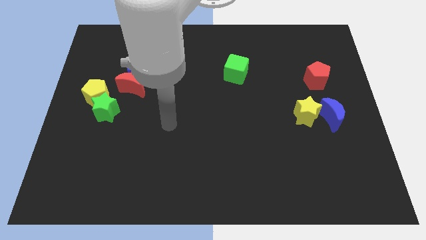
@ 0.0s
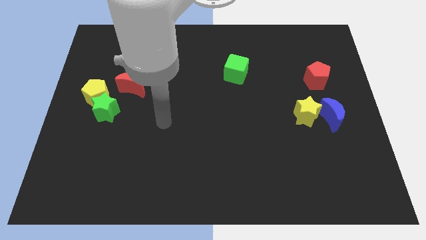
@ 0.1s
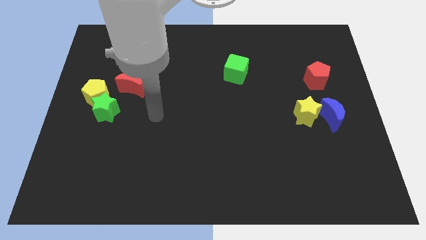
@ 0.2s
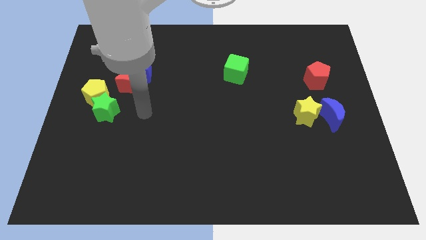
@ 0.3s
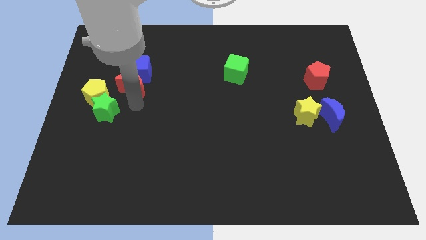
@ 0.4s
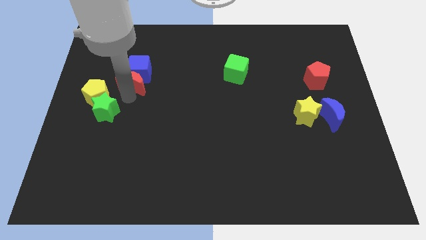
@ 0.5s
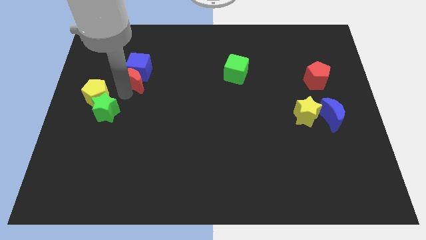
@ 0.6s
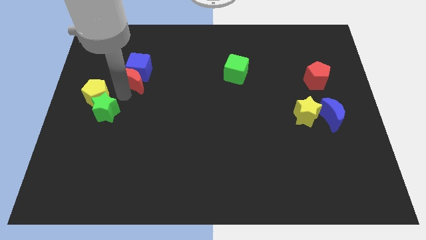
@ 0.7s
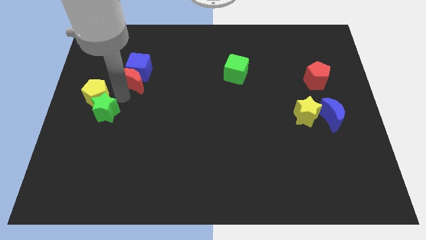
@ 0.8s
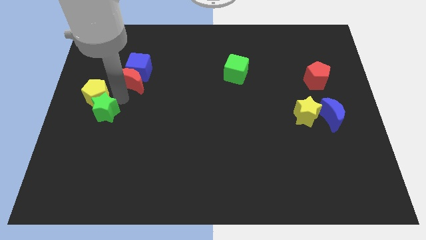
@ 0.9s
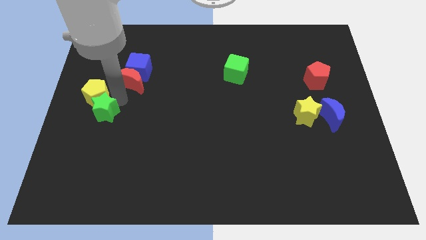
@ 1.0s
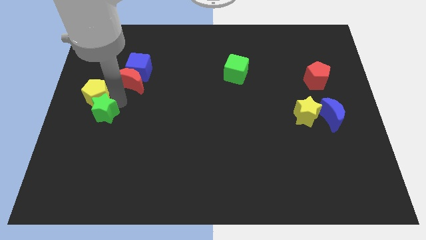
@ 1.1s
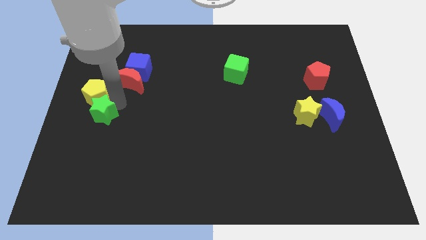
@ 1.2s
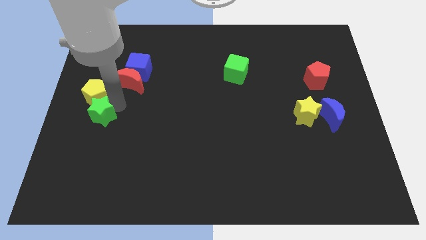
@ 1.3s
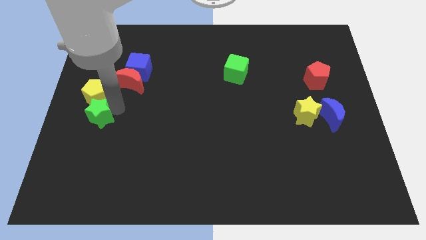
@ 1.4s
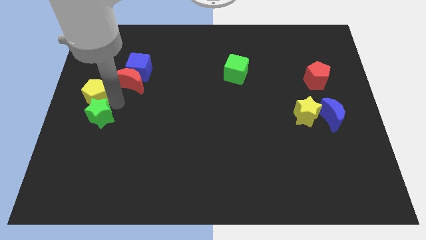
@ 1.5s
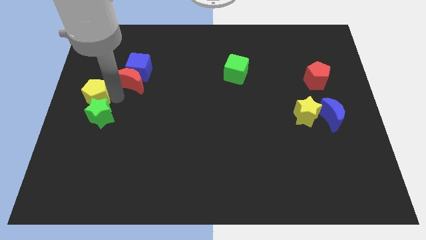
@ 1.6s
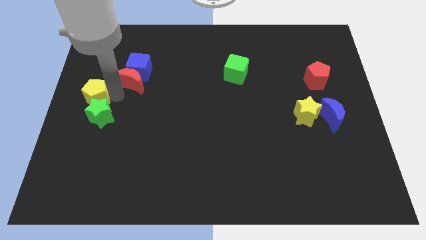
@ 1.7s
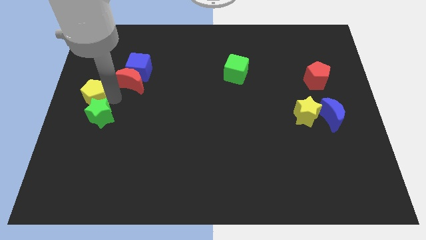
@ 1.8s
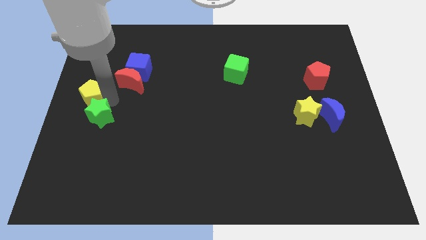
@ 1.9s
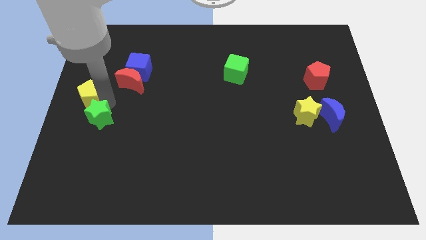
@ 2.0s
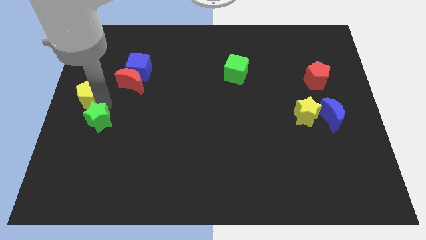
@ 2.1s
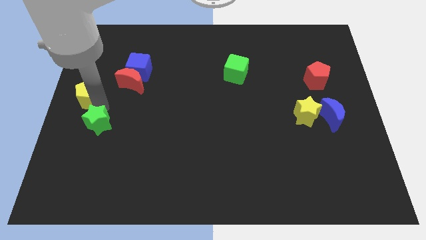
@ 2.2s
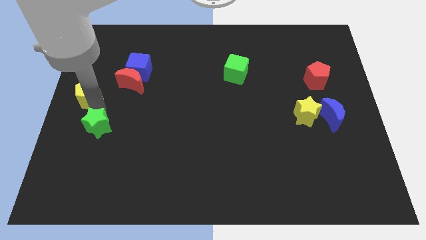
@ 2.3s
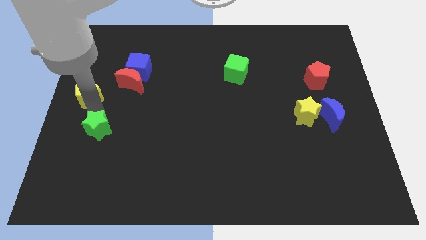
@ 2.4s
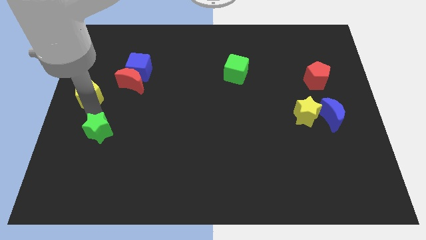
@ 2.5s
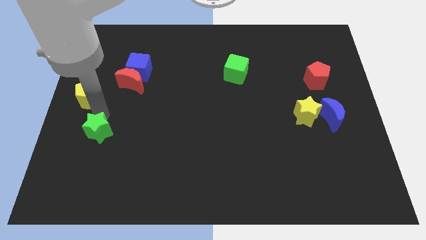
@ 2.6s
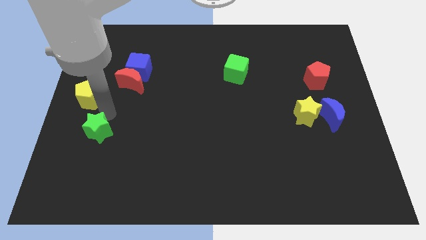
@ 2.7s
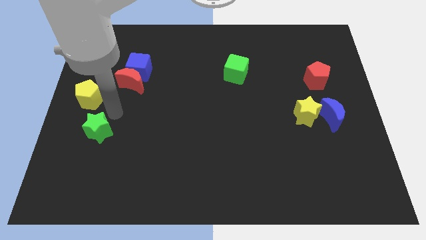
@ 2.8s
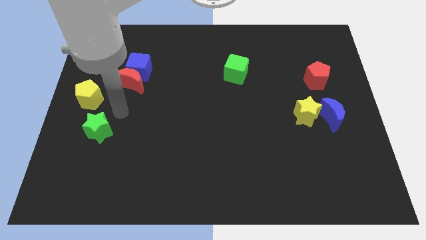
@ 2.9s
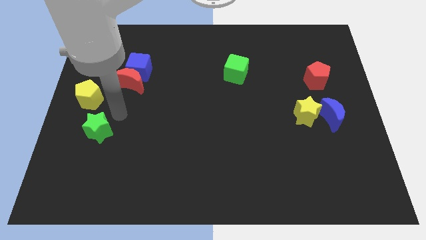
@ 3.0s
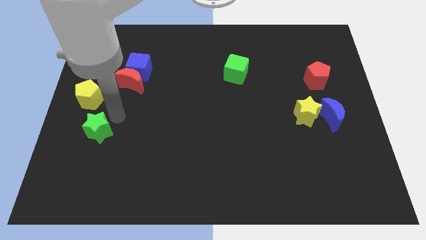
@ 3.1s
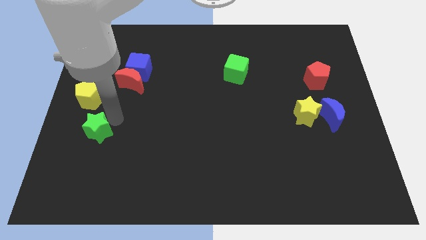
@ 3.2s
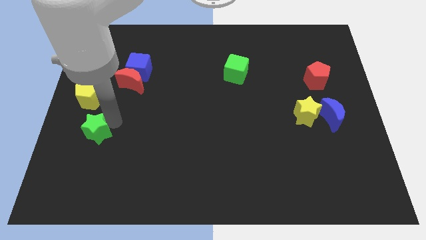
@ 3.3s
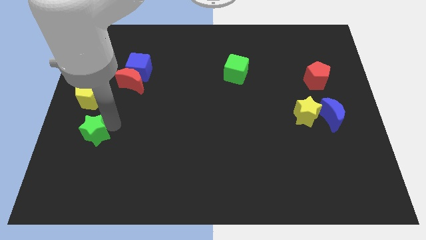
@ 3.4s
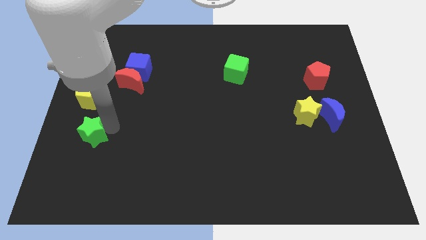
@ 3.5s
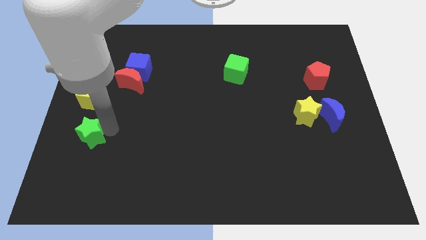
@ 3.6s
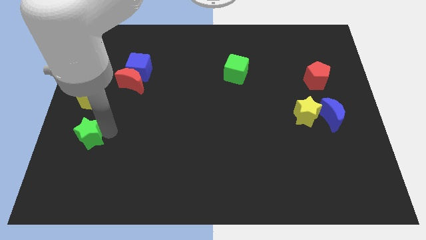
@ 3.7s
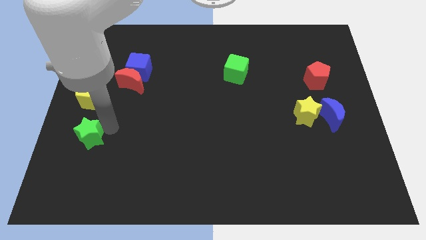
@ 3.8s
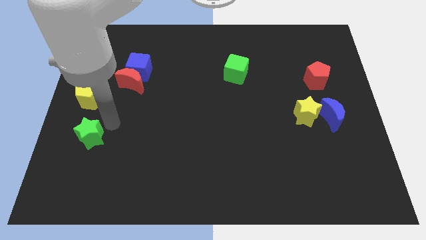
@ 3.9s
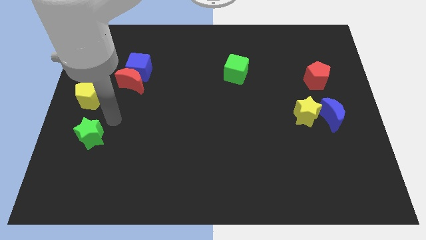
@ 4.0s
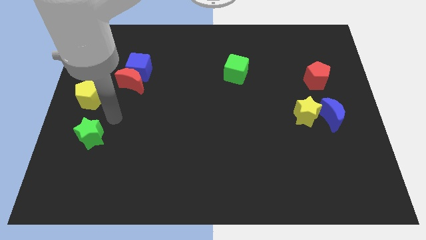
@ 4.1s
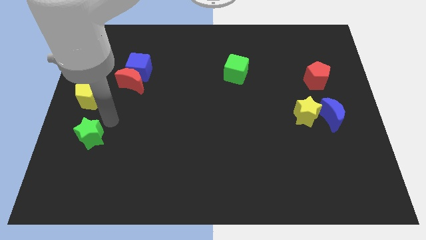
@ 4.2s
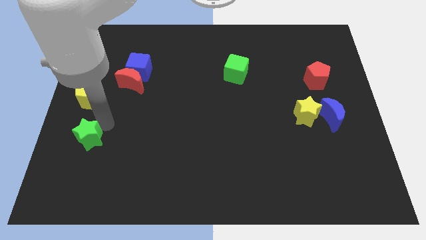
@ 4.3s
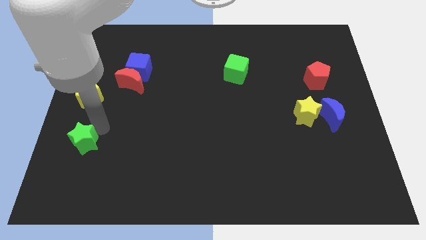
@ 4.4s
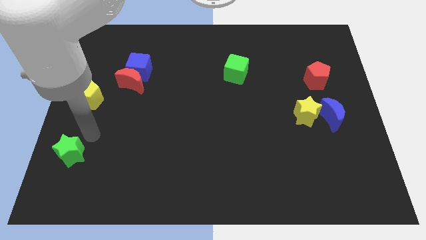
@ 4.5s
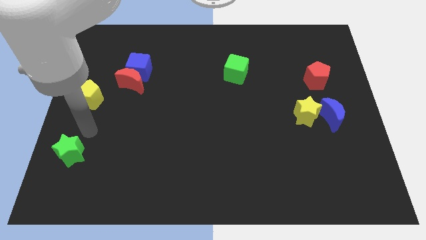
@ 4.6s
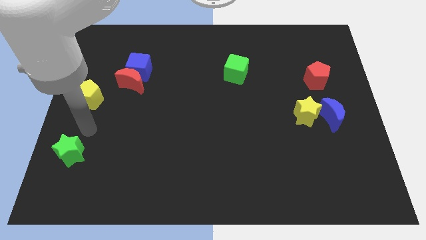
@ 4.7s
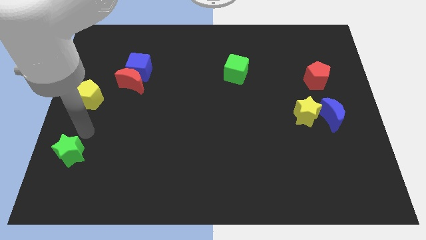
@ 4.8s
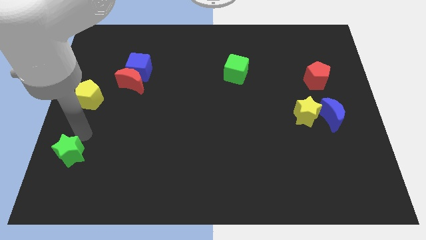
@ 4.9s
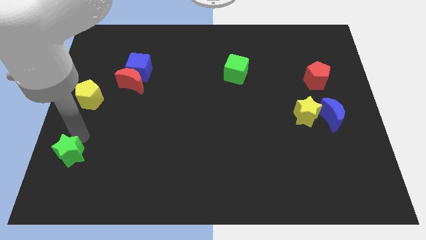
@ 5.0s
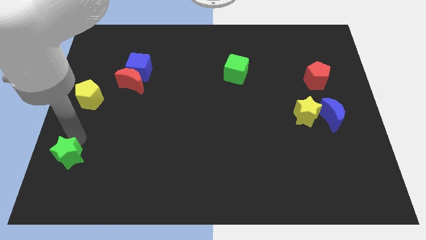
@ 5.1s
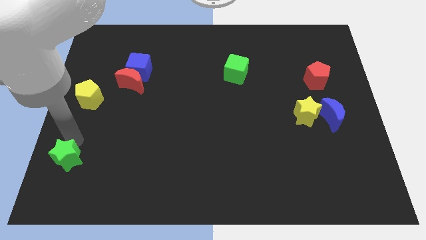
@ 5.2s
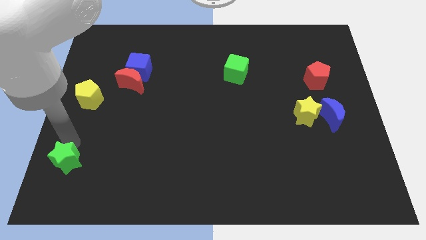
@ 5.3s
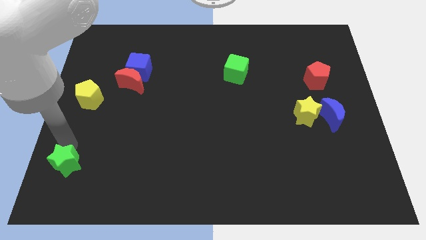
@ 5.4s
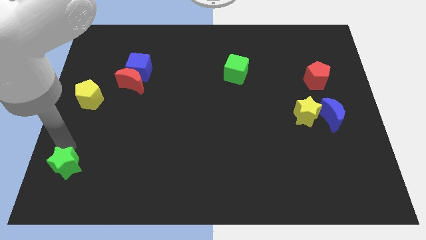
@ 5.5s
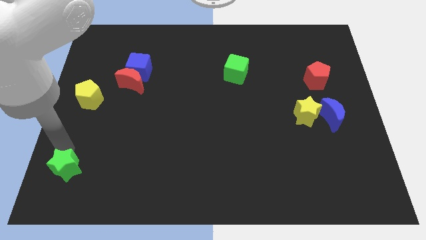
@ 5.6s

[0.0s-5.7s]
slide the green star to the bottom left

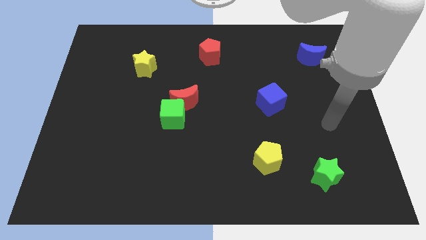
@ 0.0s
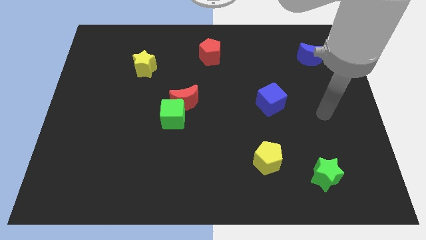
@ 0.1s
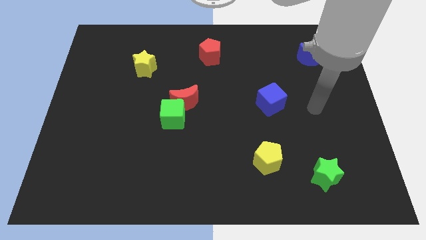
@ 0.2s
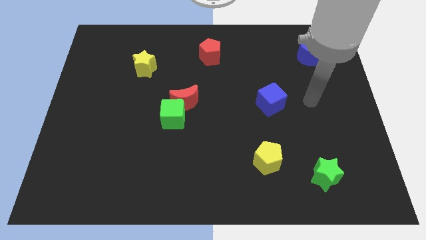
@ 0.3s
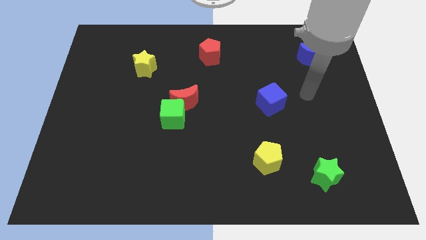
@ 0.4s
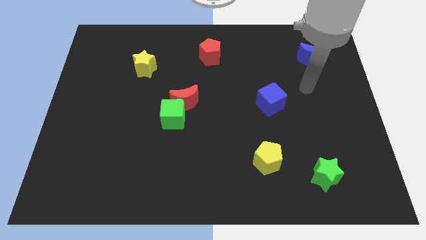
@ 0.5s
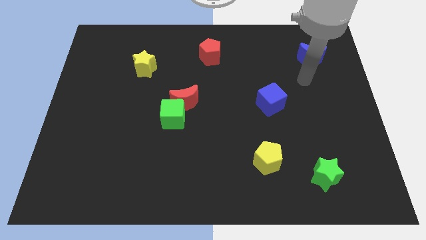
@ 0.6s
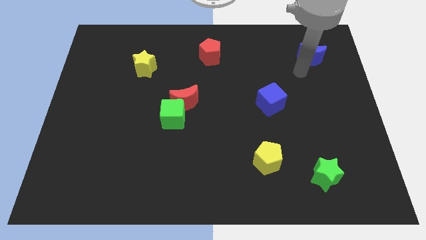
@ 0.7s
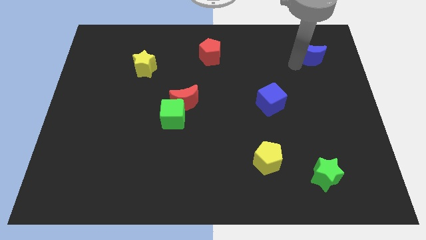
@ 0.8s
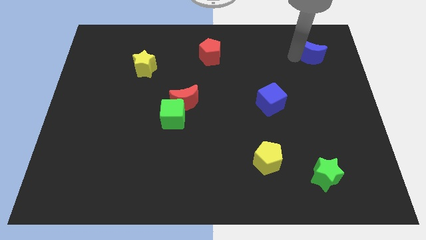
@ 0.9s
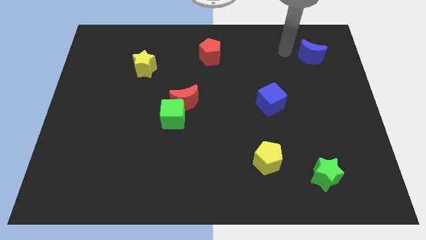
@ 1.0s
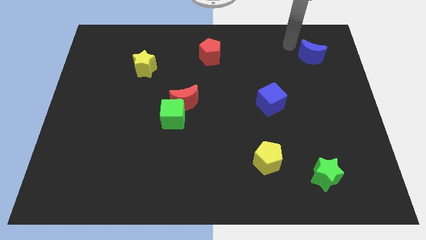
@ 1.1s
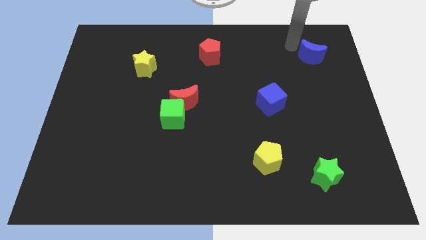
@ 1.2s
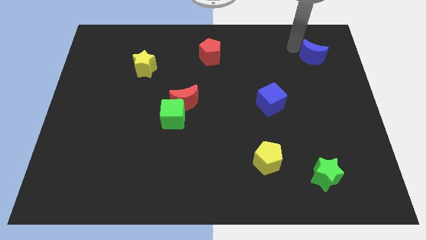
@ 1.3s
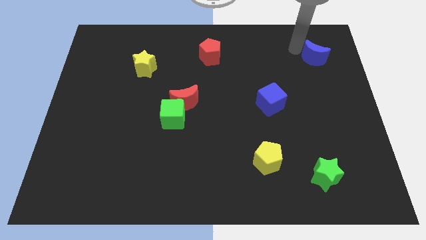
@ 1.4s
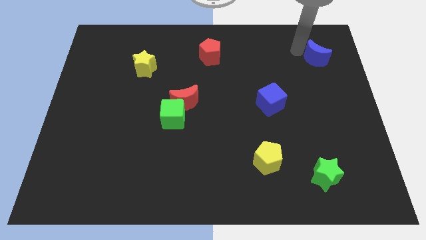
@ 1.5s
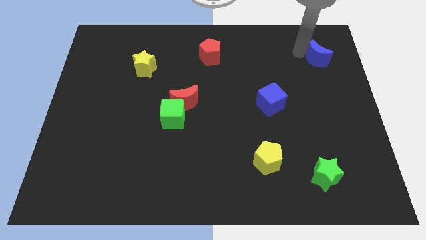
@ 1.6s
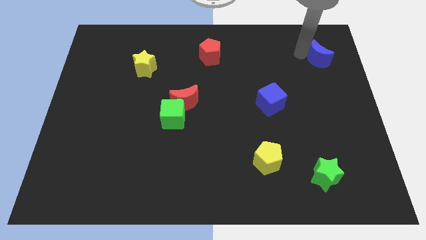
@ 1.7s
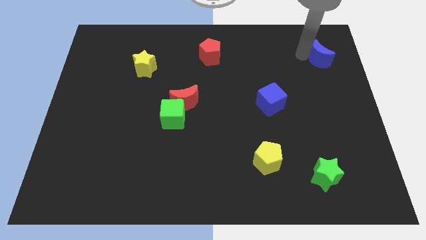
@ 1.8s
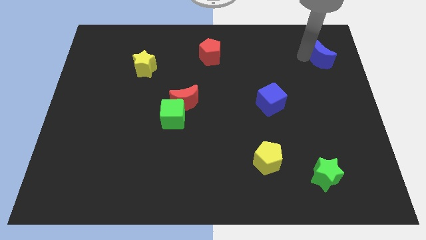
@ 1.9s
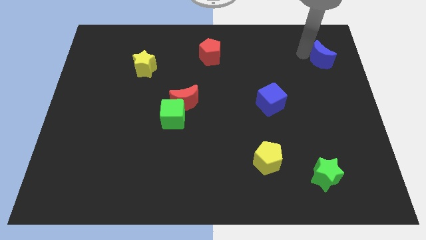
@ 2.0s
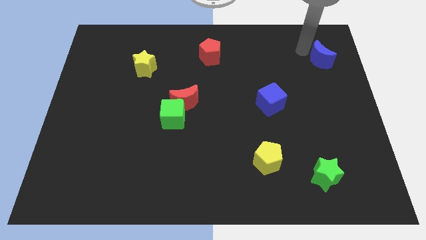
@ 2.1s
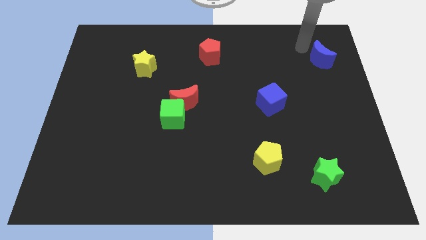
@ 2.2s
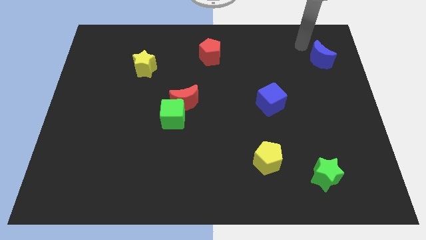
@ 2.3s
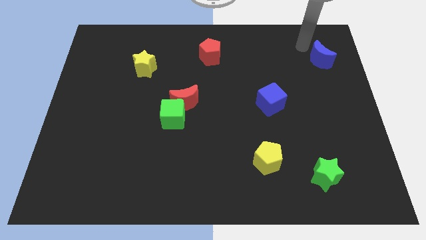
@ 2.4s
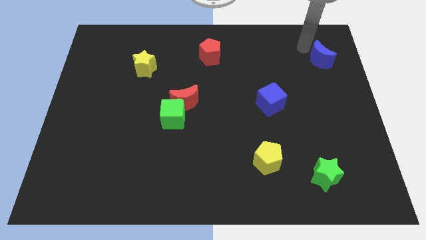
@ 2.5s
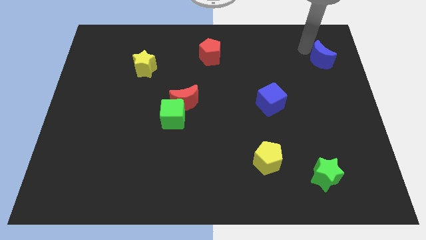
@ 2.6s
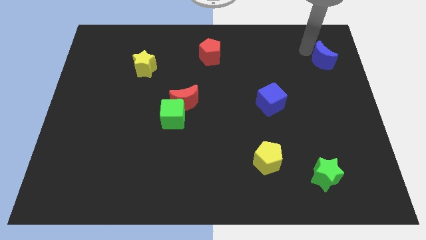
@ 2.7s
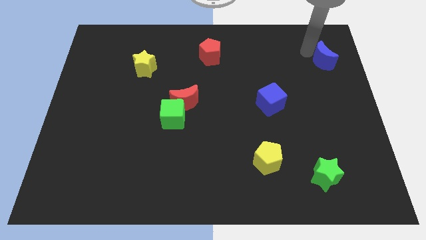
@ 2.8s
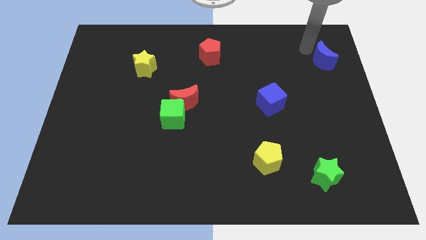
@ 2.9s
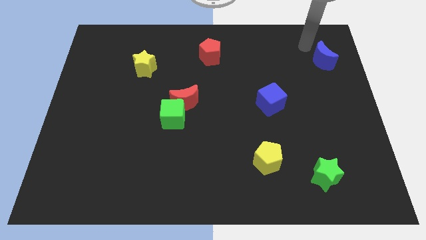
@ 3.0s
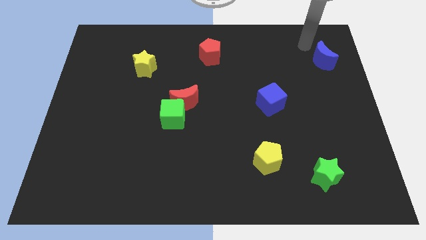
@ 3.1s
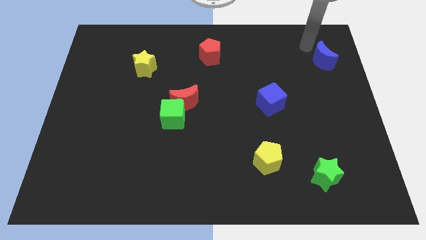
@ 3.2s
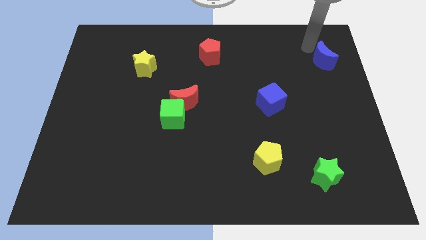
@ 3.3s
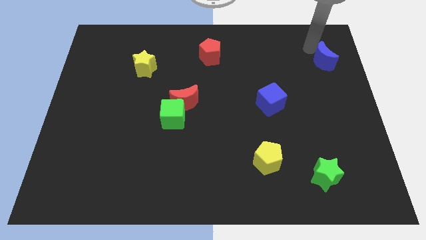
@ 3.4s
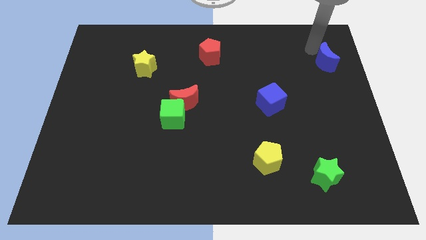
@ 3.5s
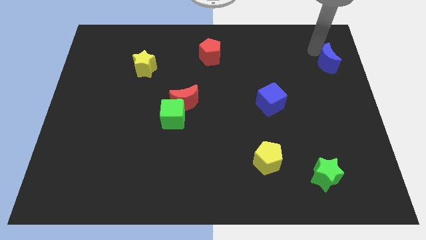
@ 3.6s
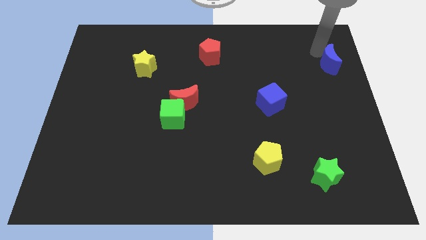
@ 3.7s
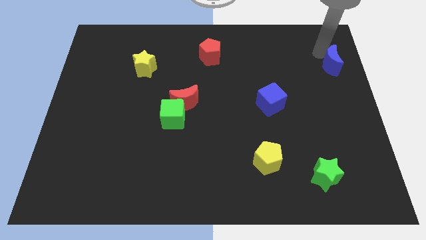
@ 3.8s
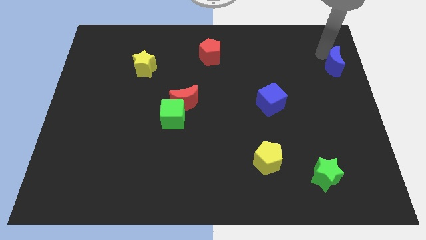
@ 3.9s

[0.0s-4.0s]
move the blue moon to the right side
